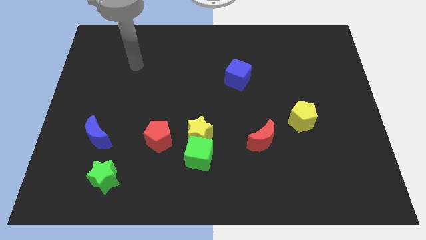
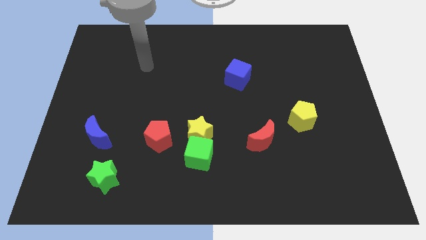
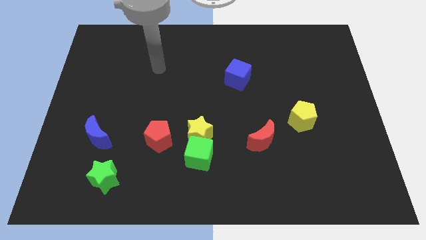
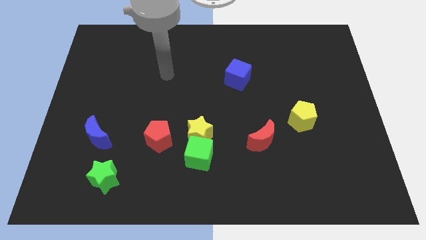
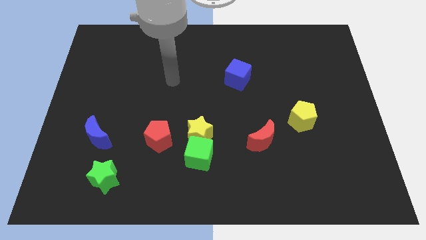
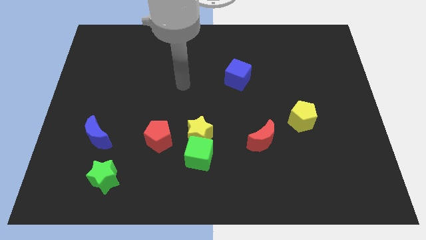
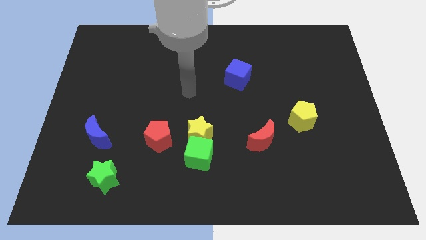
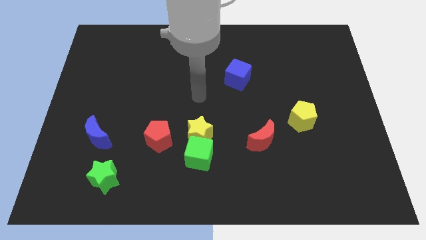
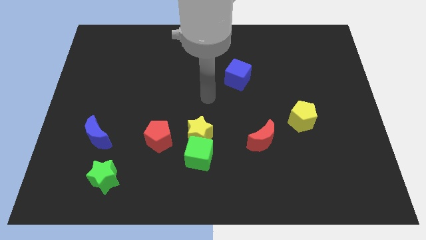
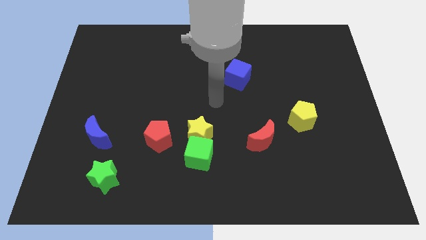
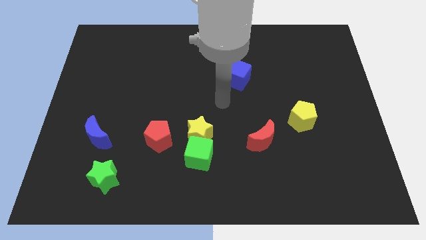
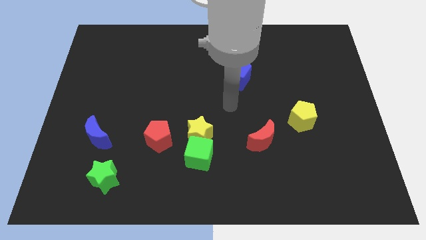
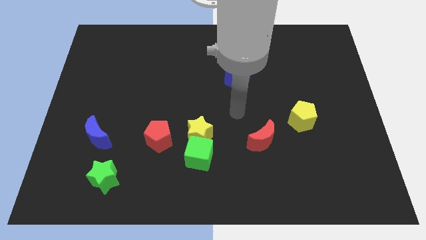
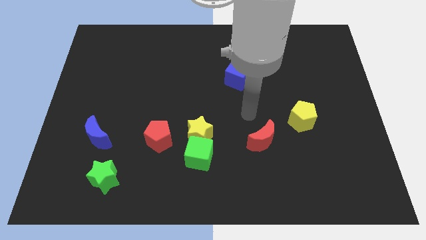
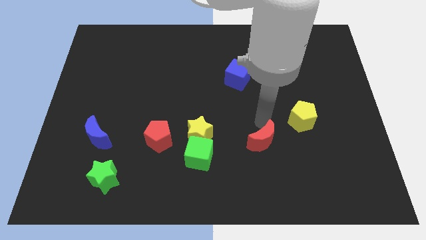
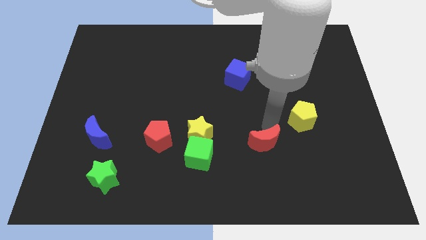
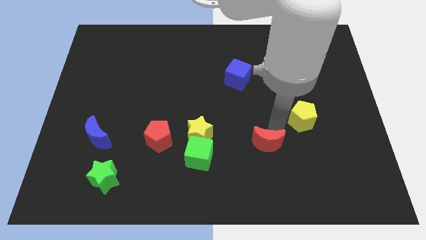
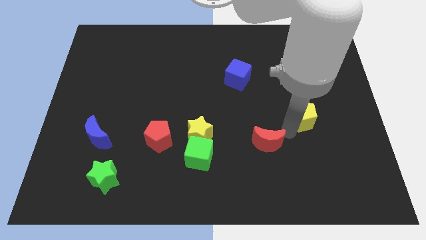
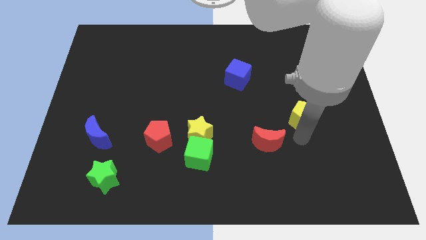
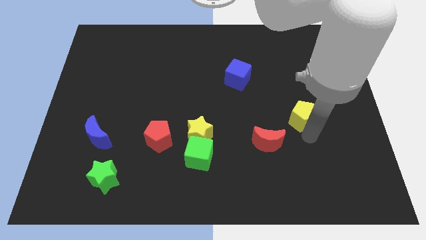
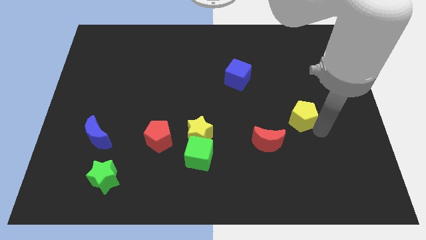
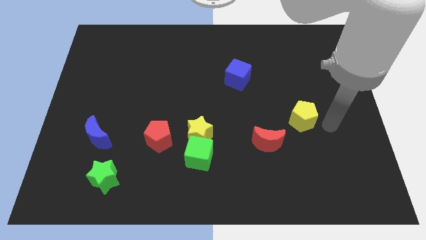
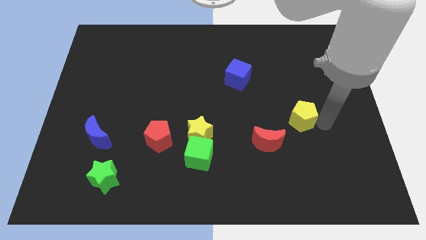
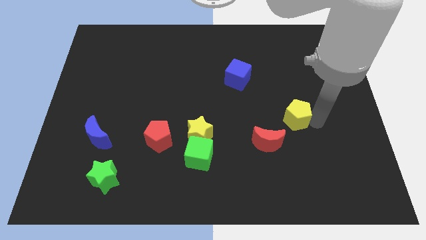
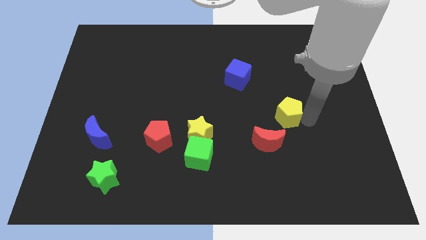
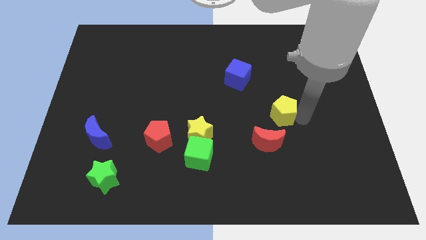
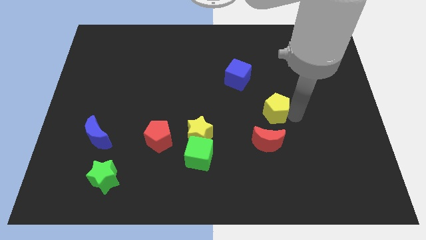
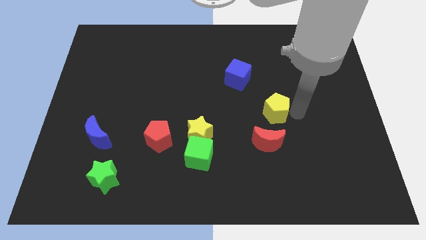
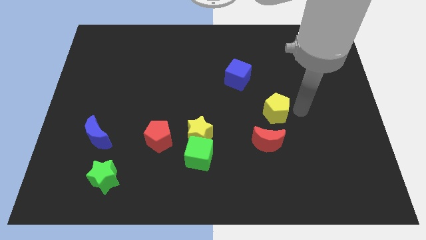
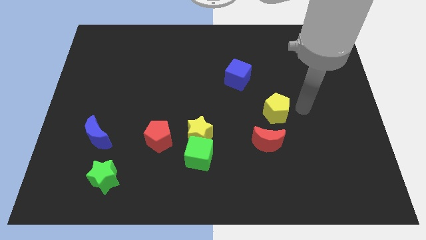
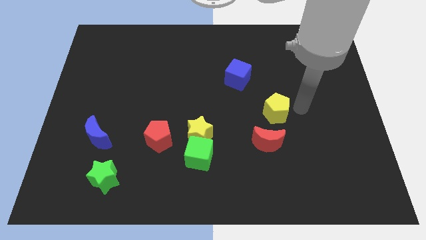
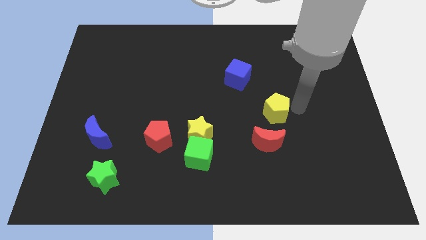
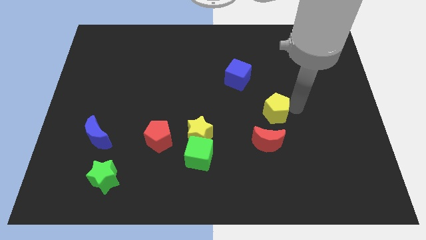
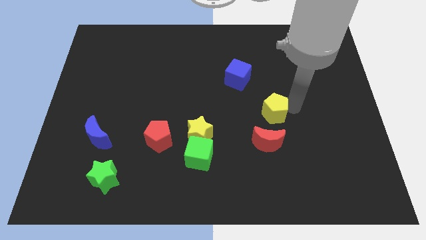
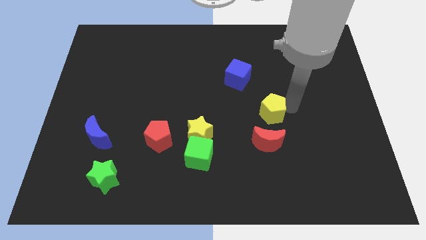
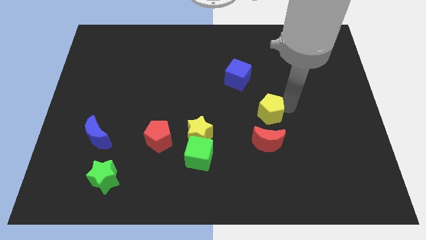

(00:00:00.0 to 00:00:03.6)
slightly push the yellow pentagon to the left

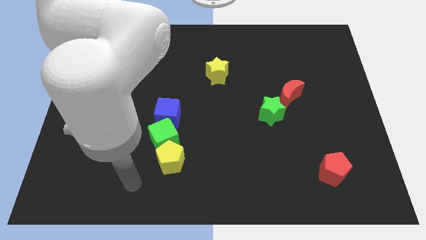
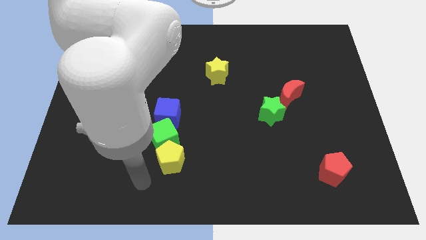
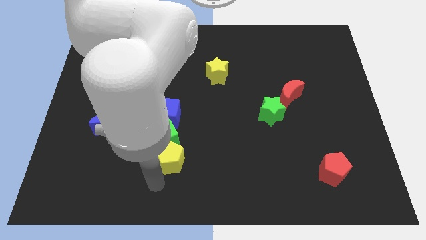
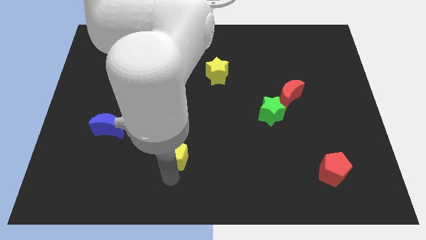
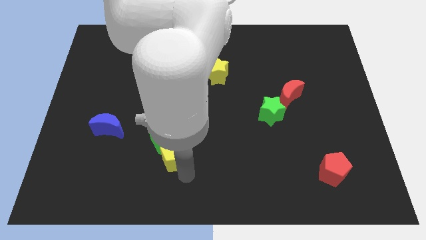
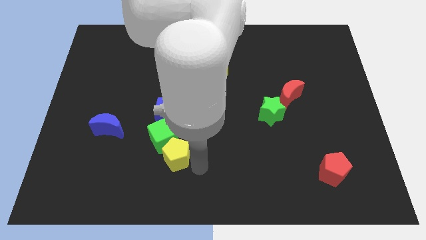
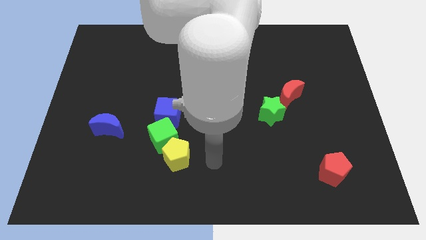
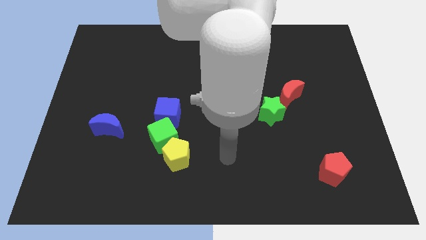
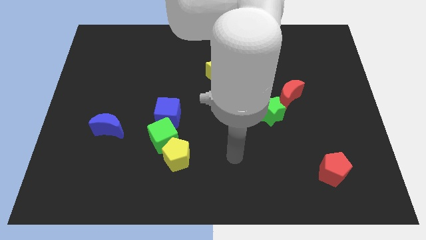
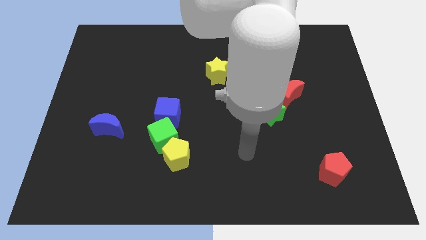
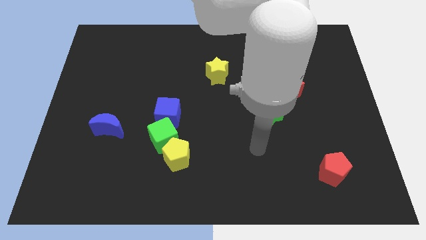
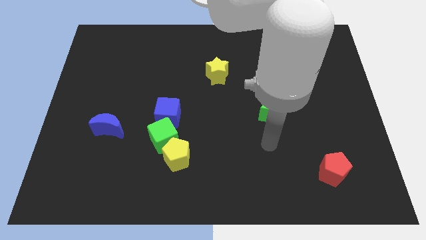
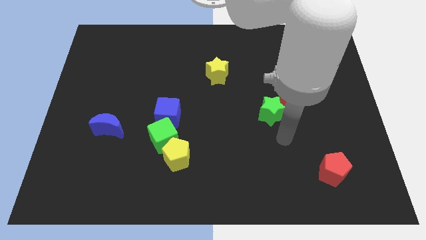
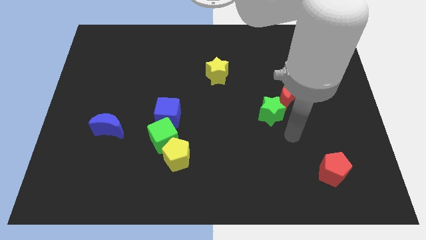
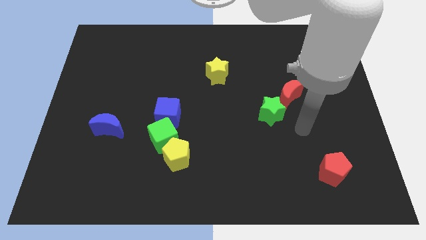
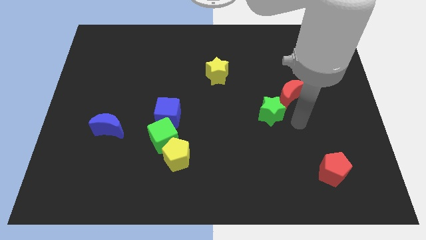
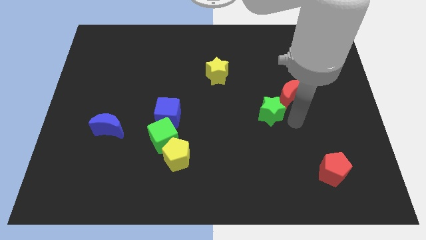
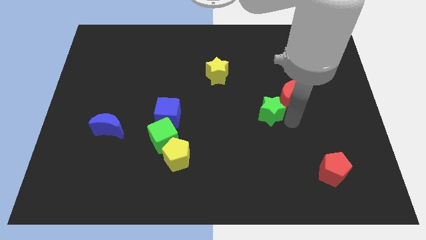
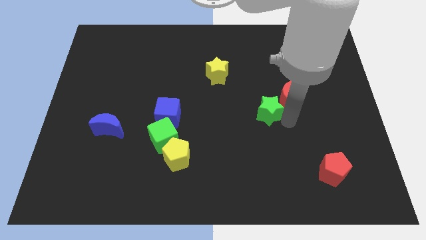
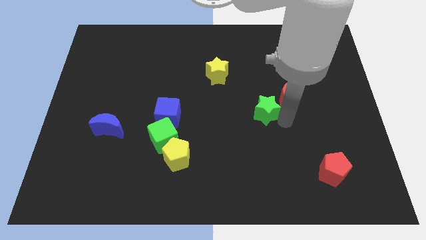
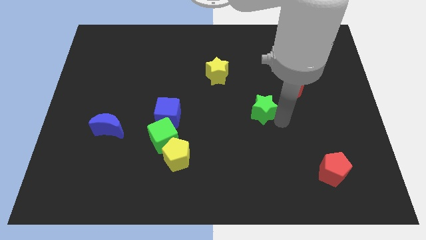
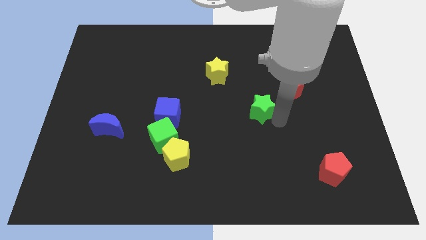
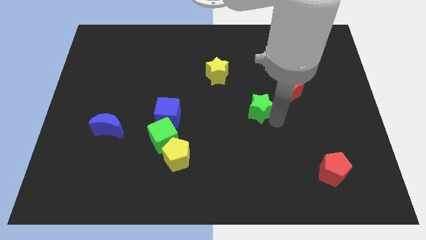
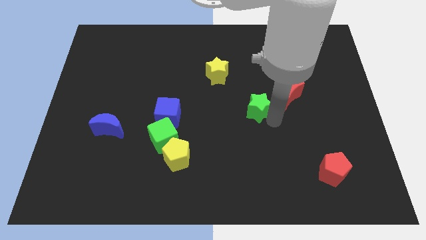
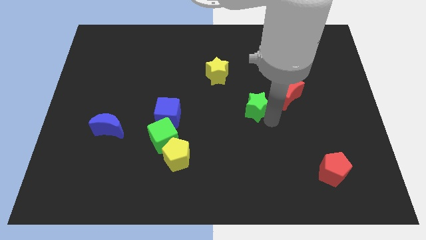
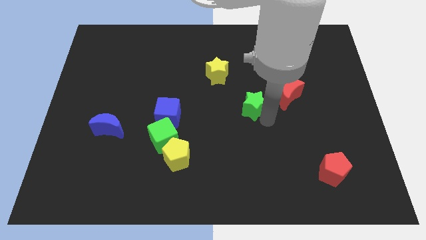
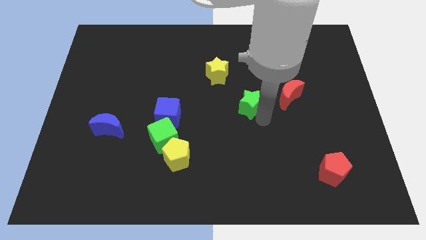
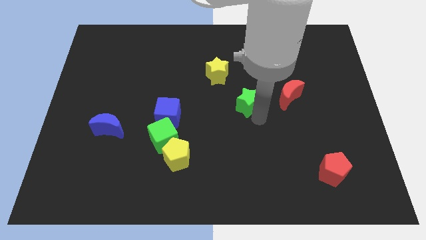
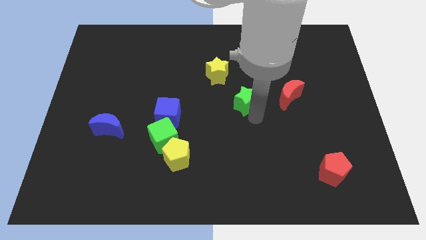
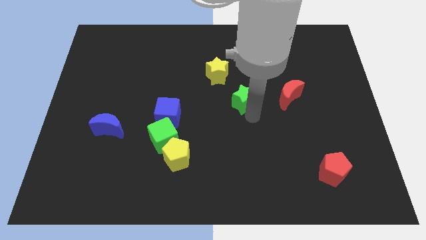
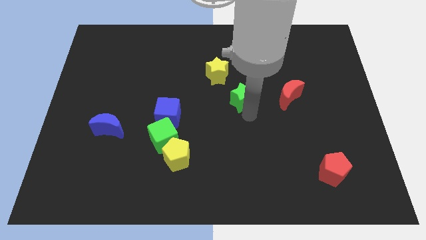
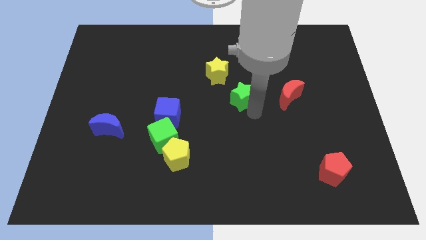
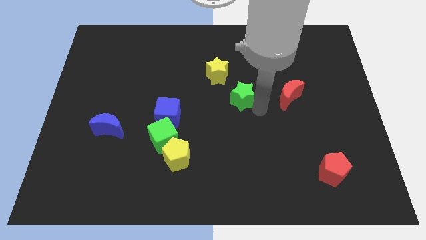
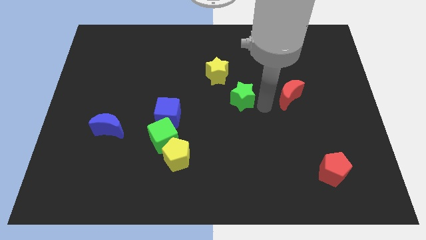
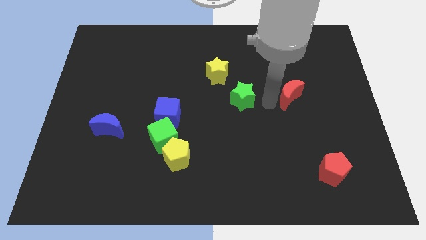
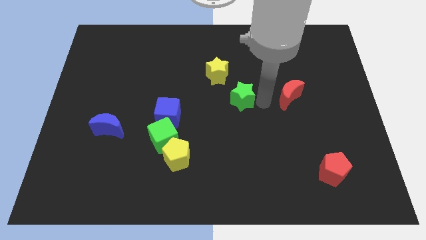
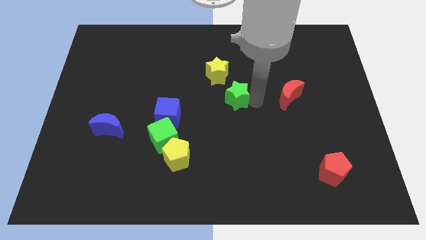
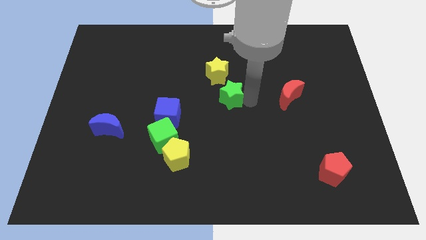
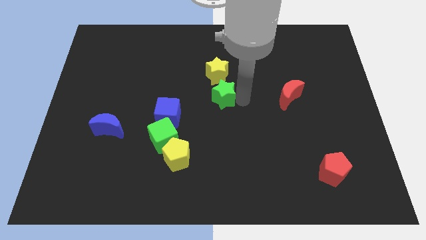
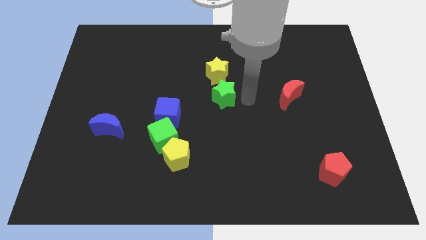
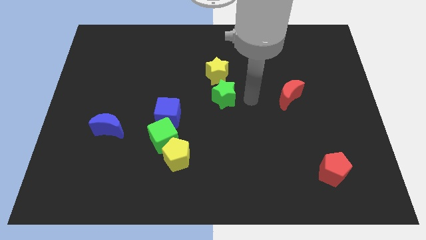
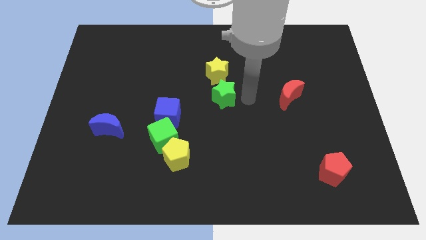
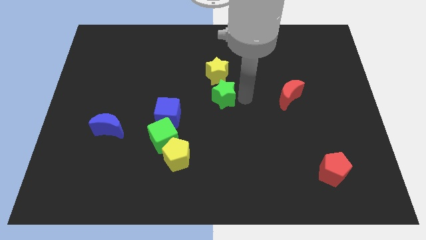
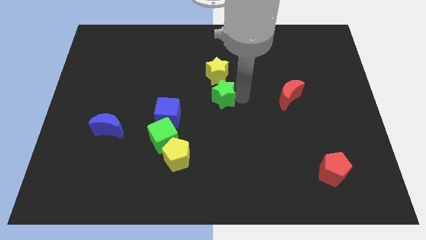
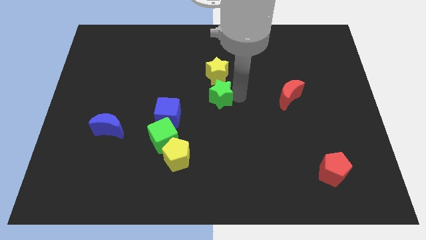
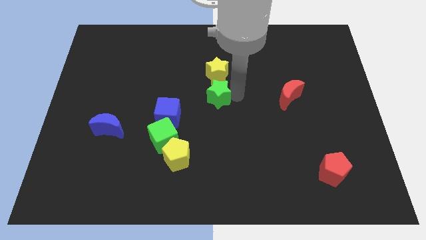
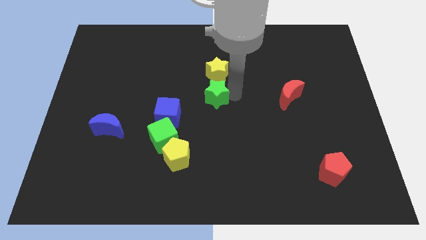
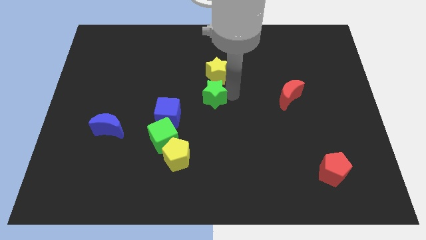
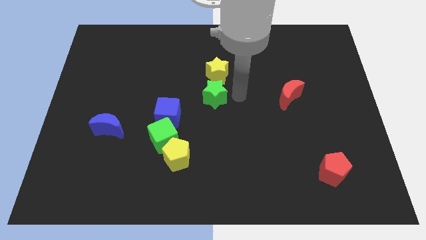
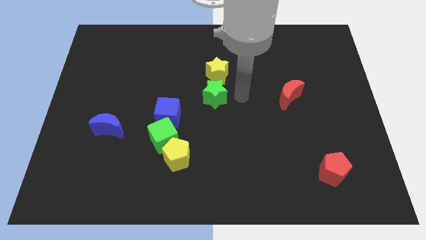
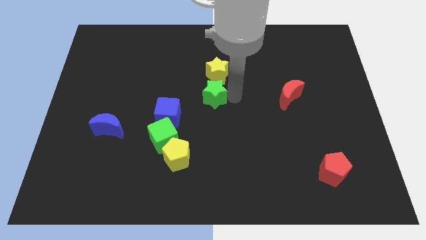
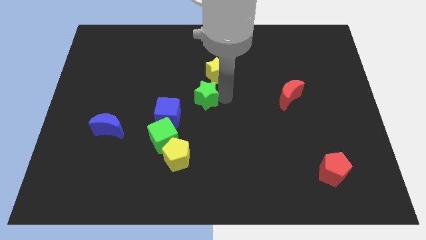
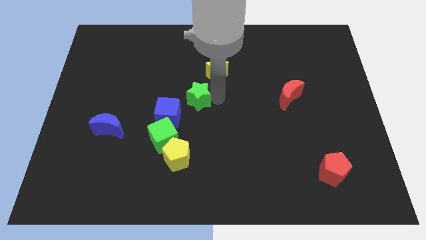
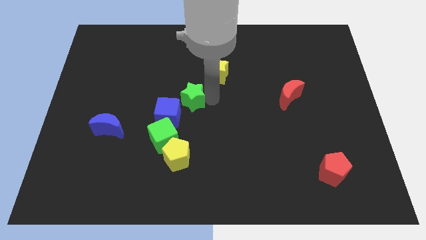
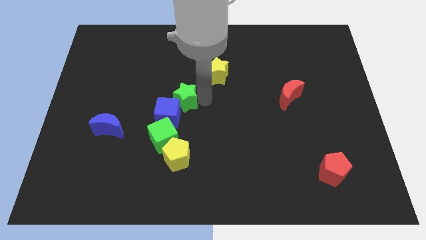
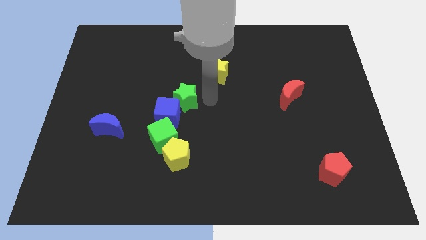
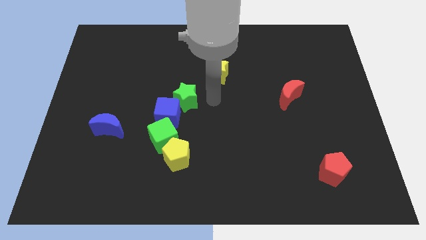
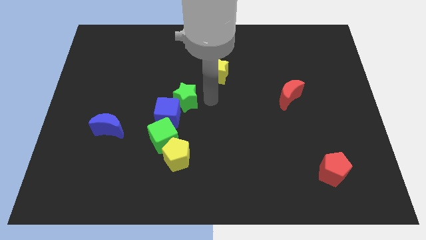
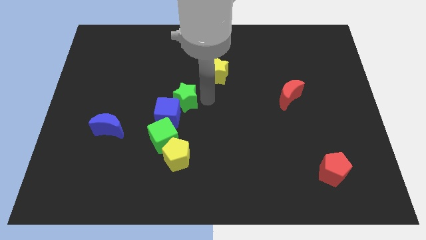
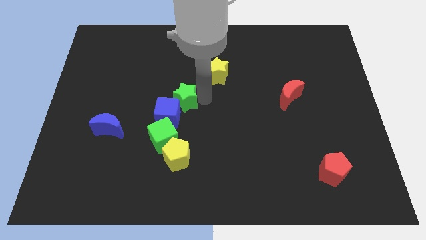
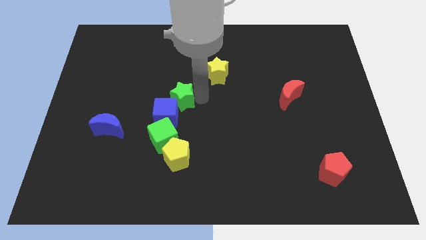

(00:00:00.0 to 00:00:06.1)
slide the green star left
